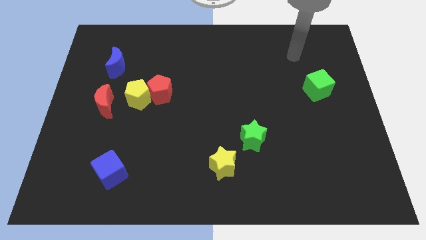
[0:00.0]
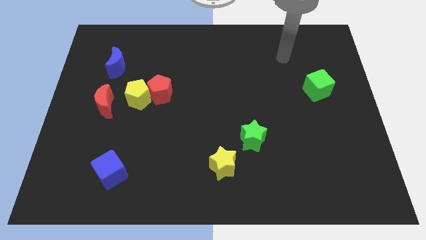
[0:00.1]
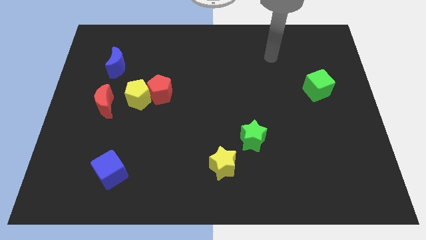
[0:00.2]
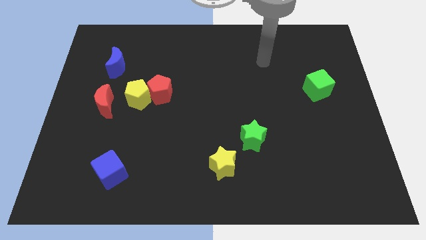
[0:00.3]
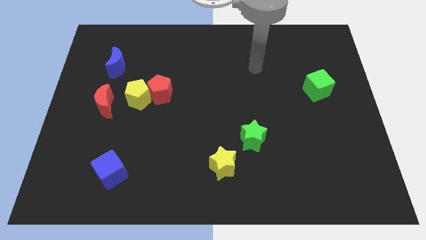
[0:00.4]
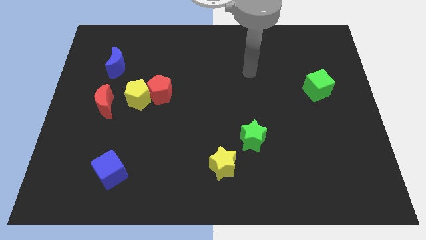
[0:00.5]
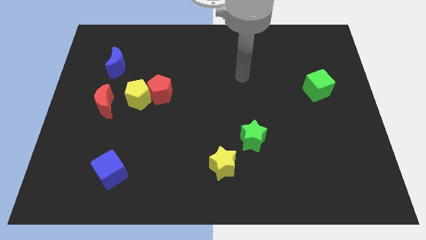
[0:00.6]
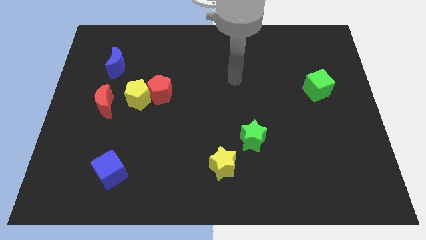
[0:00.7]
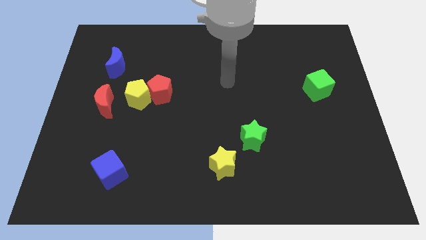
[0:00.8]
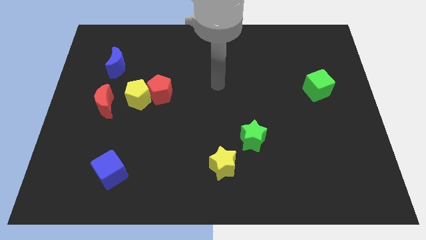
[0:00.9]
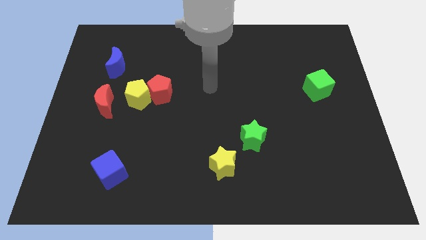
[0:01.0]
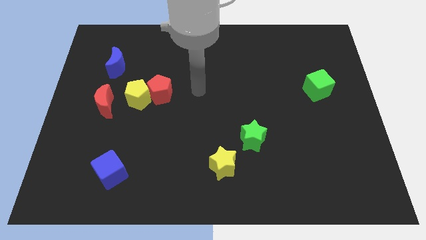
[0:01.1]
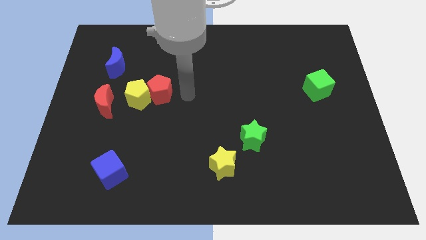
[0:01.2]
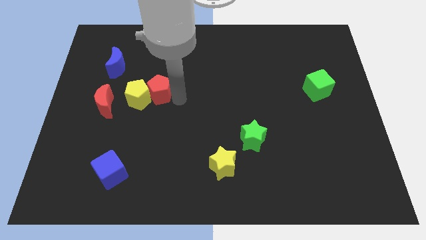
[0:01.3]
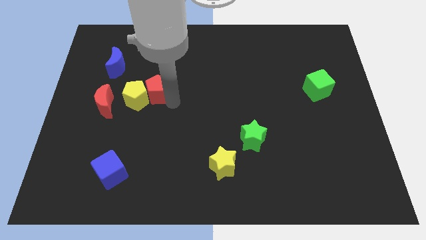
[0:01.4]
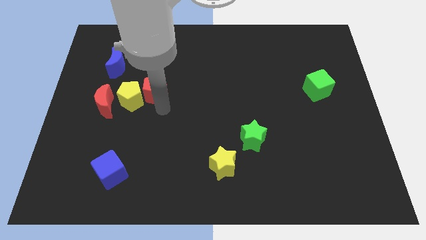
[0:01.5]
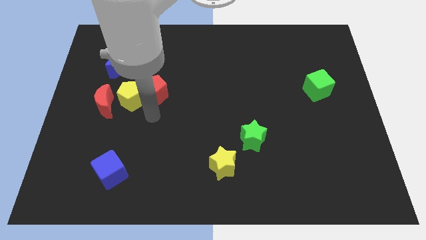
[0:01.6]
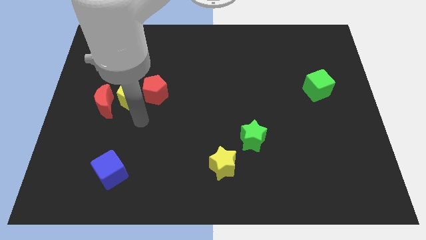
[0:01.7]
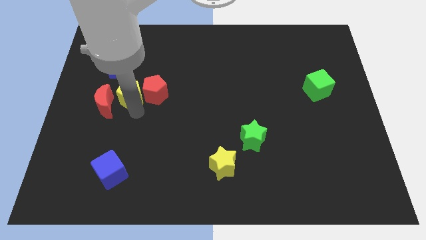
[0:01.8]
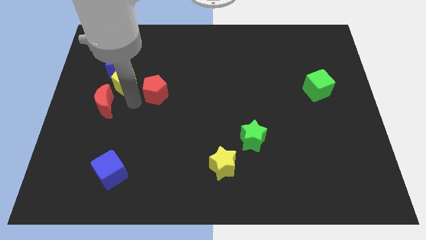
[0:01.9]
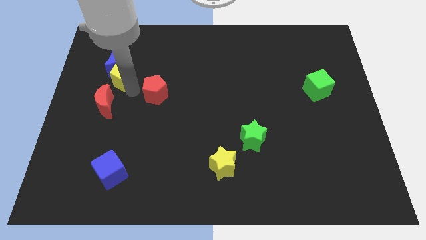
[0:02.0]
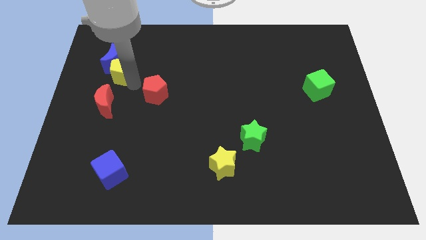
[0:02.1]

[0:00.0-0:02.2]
move the red pentagon away from the yellow pentagon

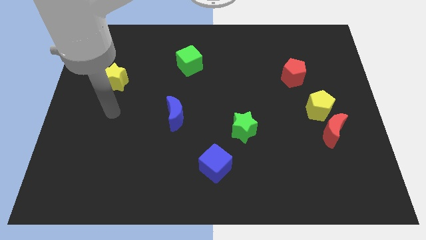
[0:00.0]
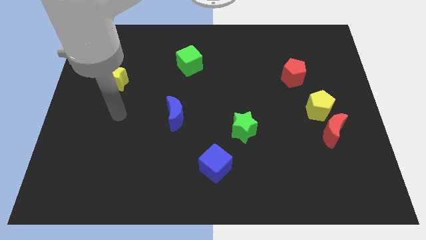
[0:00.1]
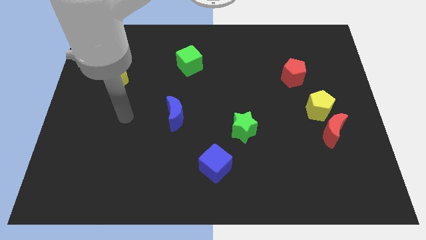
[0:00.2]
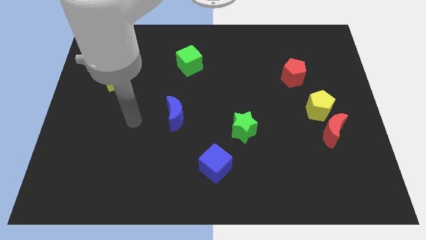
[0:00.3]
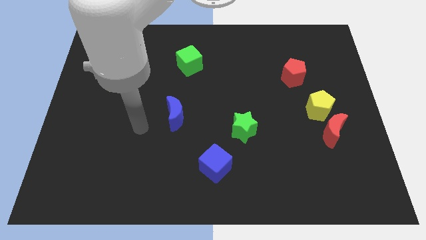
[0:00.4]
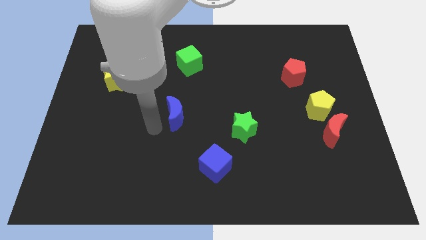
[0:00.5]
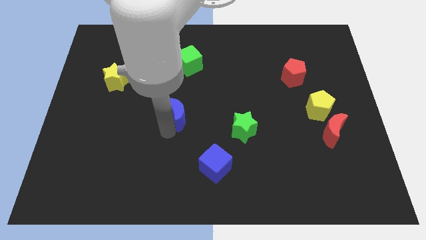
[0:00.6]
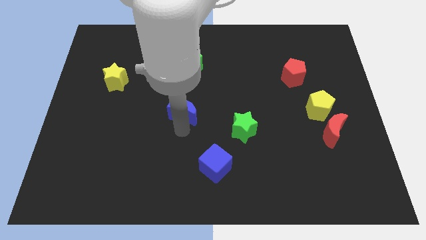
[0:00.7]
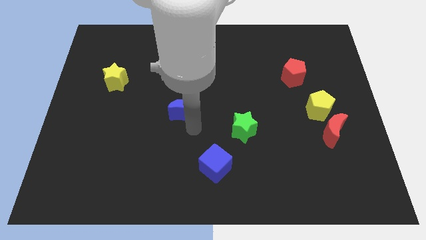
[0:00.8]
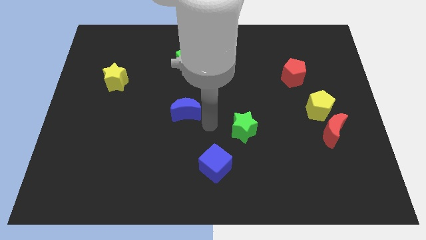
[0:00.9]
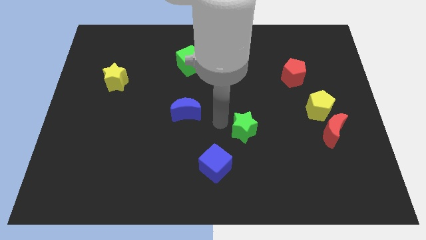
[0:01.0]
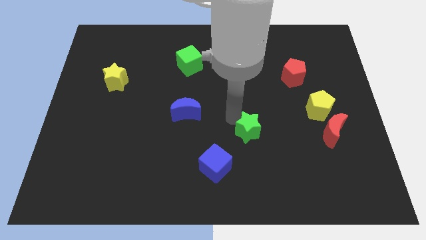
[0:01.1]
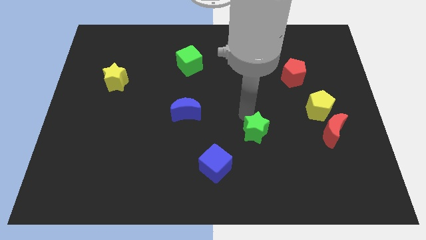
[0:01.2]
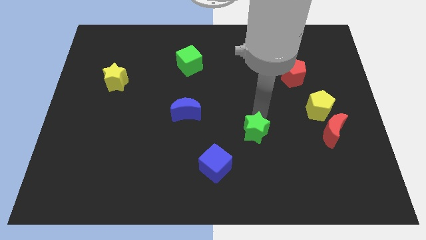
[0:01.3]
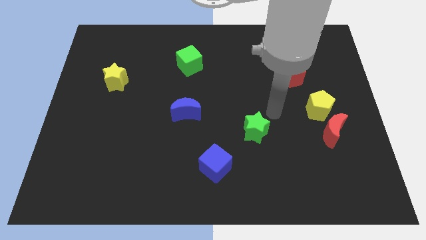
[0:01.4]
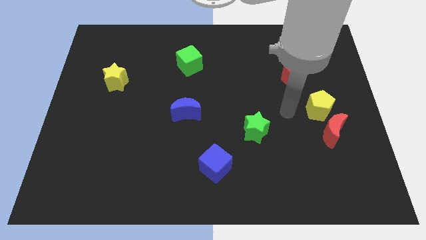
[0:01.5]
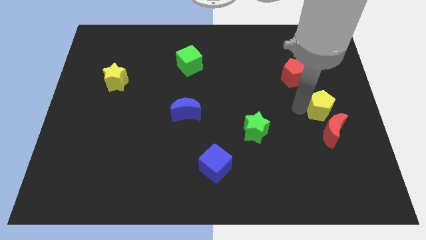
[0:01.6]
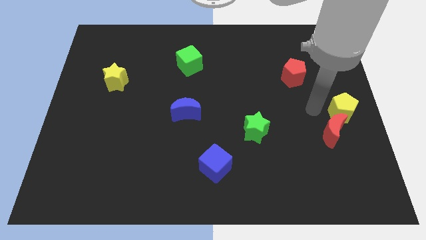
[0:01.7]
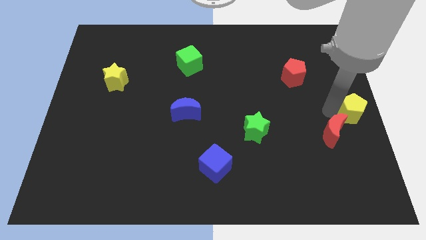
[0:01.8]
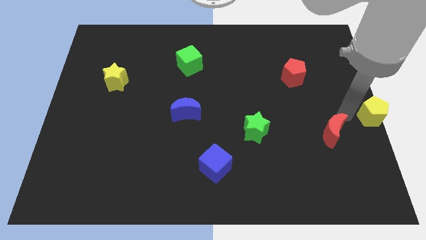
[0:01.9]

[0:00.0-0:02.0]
move the red moon away from the yellow pentagon

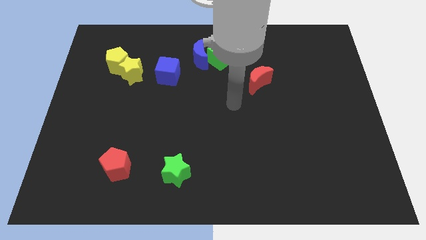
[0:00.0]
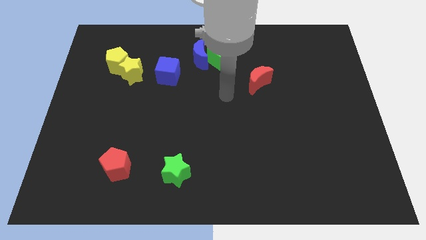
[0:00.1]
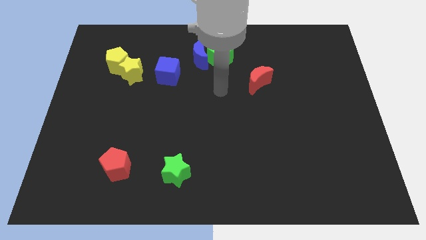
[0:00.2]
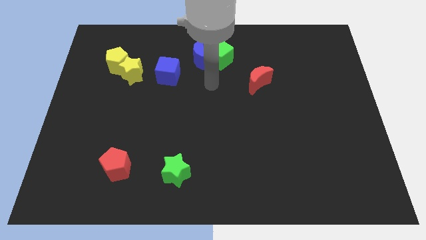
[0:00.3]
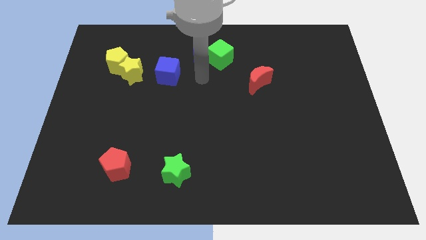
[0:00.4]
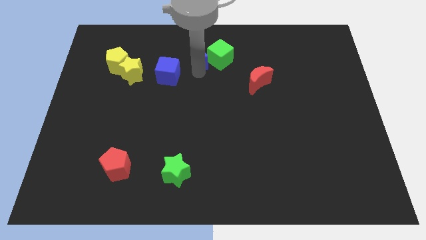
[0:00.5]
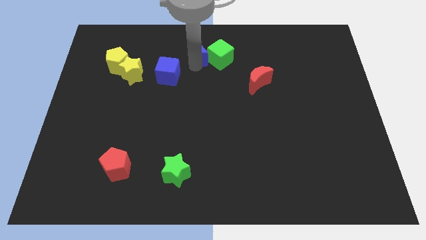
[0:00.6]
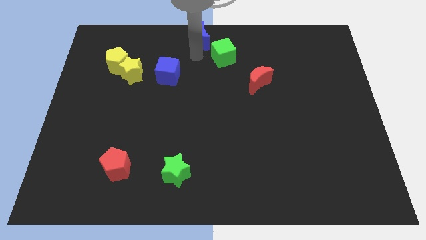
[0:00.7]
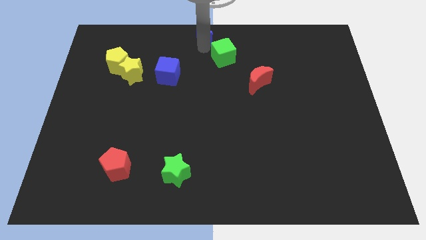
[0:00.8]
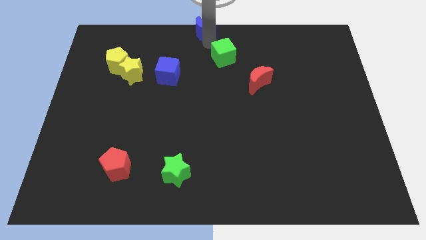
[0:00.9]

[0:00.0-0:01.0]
separate the green cube from the blue moon

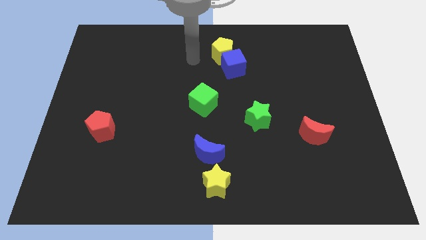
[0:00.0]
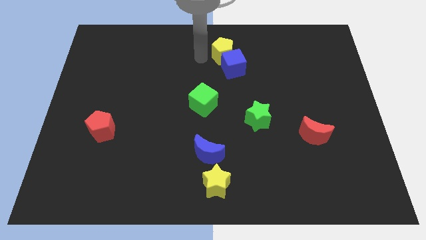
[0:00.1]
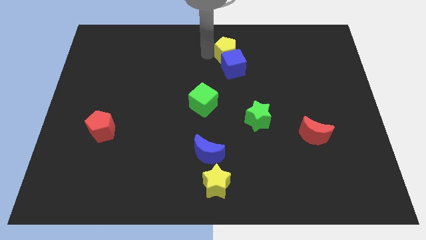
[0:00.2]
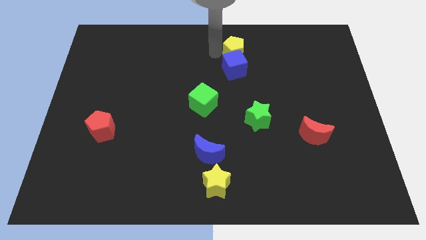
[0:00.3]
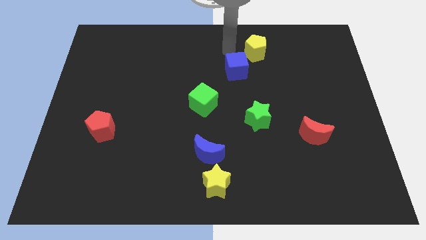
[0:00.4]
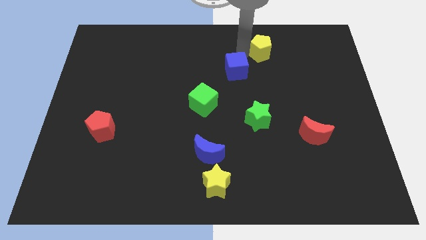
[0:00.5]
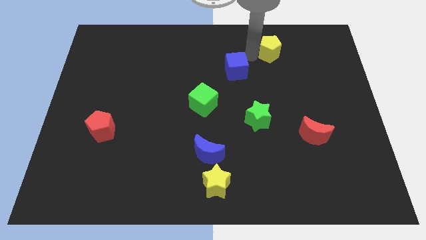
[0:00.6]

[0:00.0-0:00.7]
move the blue cube away from the yellow pentagon

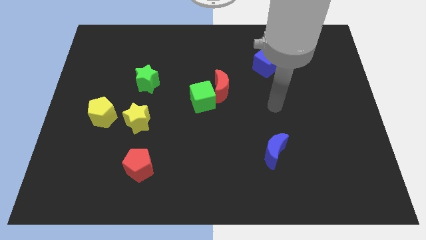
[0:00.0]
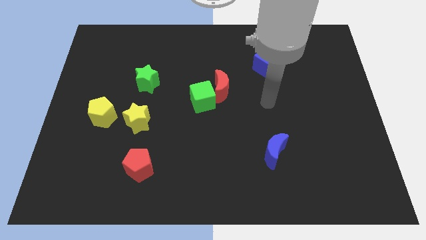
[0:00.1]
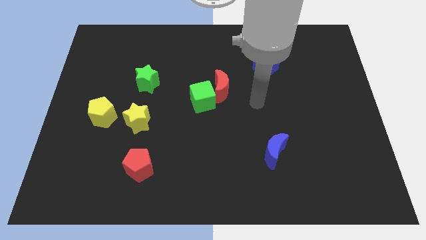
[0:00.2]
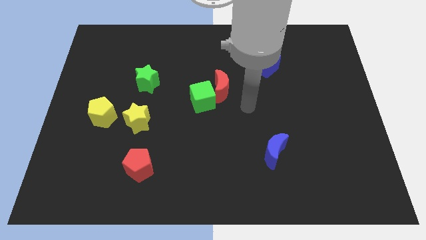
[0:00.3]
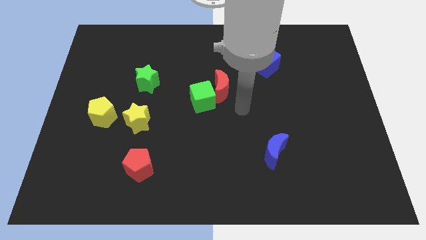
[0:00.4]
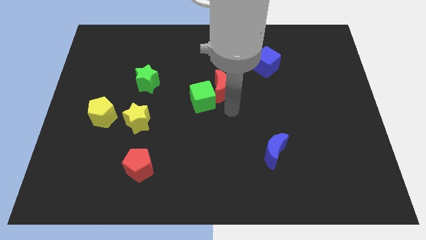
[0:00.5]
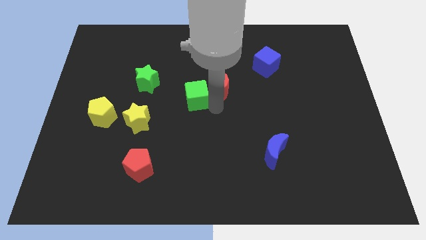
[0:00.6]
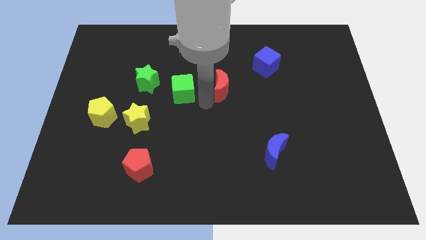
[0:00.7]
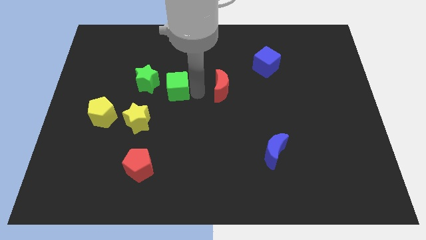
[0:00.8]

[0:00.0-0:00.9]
pull the red moon apart from the green cube

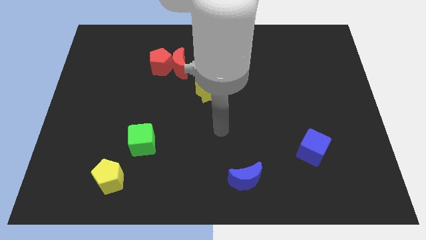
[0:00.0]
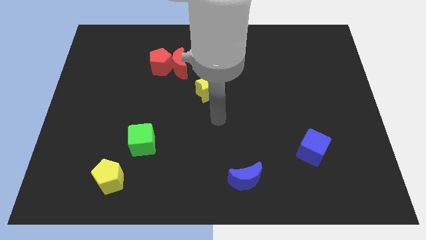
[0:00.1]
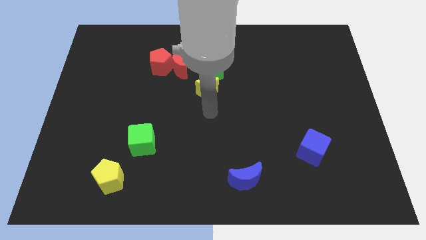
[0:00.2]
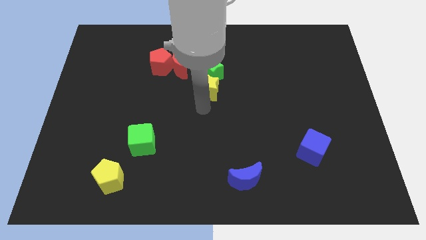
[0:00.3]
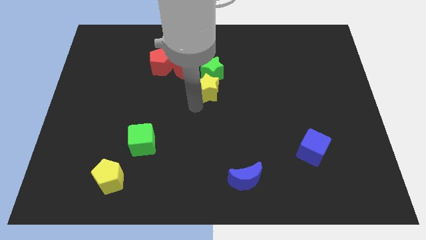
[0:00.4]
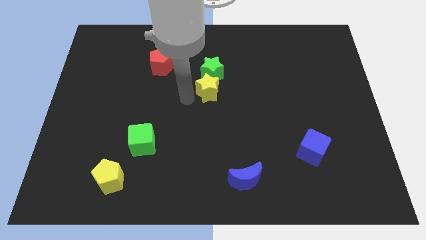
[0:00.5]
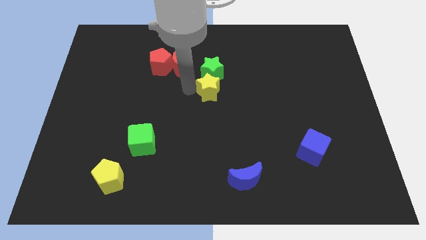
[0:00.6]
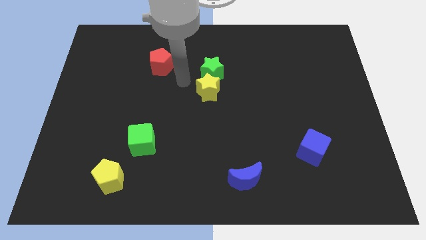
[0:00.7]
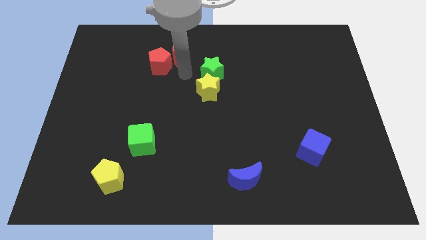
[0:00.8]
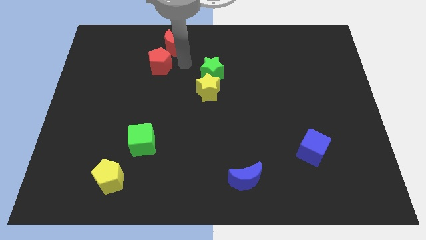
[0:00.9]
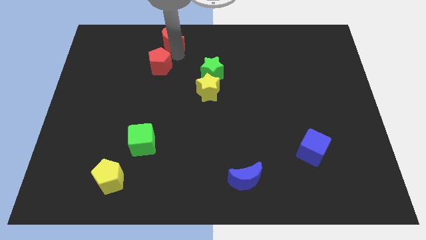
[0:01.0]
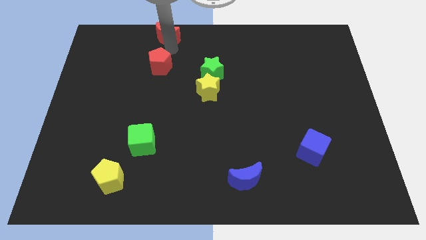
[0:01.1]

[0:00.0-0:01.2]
pull the red pentagon apart from the red moon

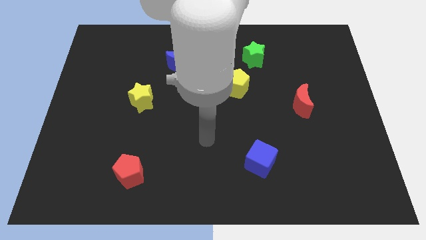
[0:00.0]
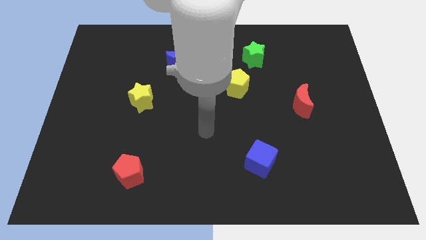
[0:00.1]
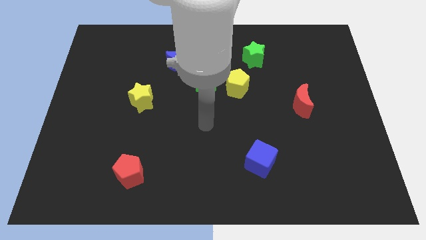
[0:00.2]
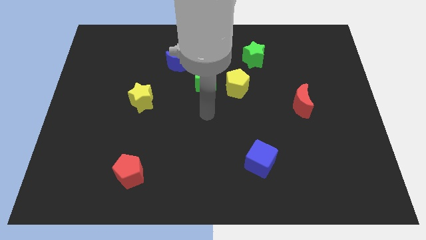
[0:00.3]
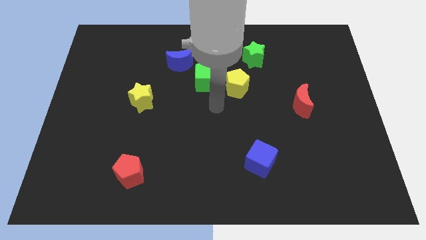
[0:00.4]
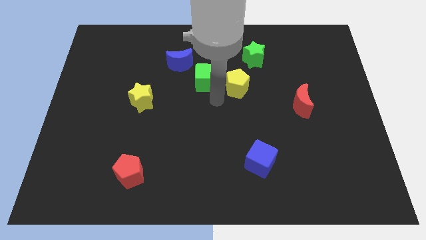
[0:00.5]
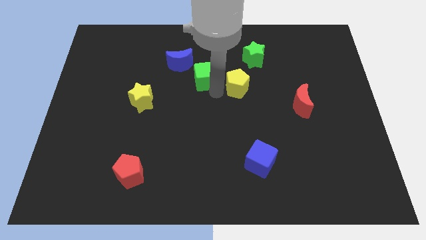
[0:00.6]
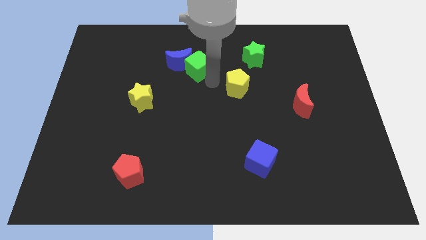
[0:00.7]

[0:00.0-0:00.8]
pull the yellow pentagon apart from the green cube

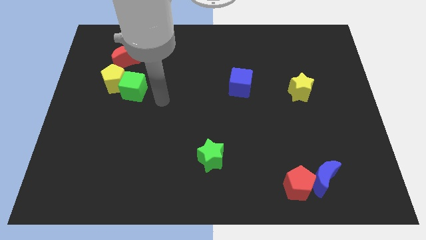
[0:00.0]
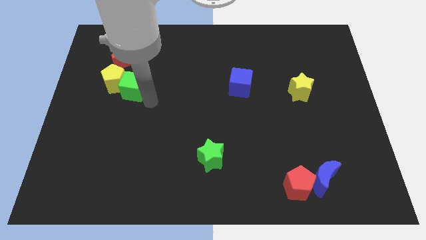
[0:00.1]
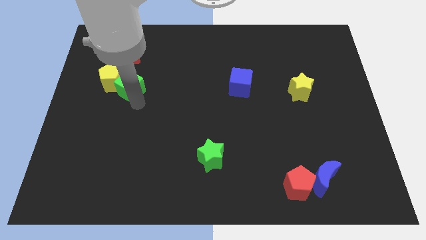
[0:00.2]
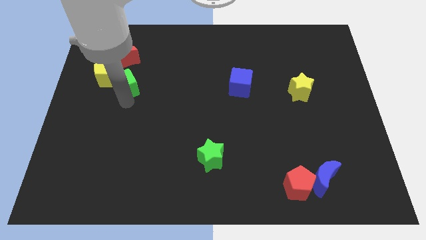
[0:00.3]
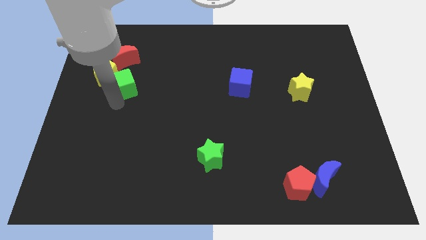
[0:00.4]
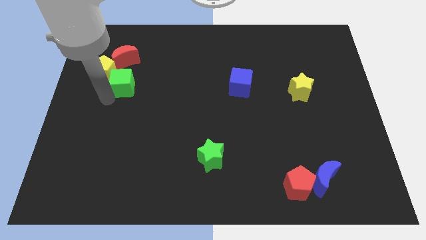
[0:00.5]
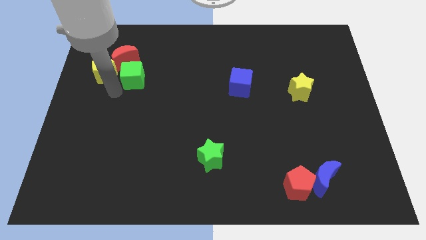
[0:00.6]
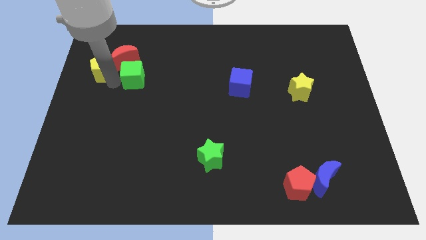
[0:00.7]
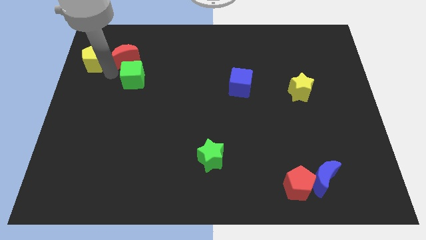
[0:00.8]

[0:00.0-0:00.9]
separate the green cube from the yellow pentagon
